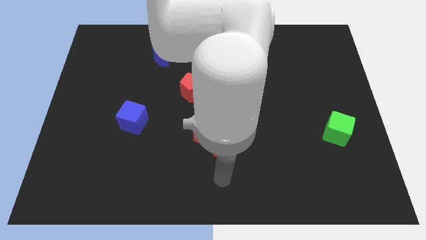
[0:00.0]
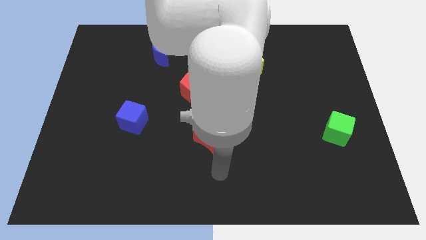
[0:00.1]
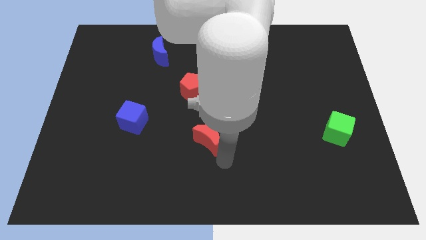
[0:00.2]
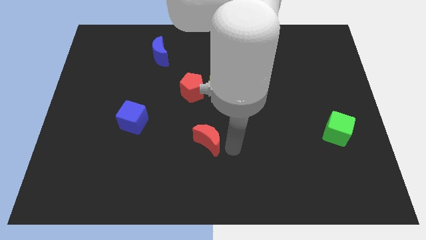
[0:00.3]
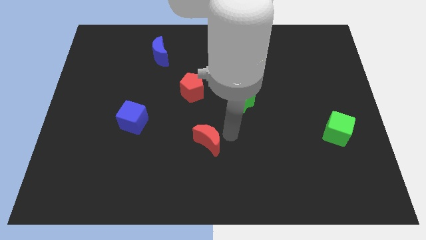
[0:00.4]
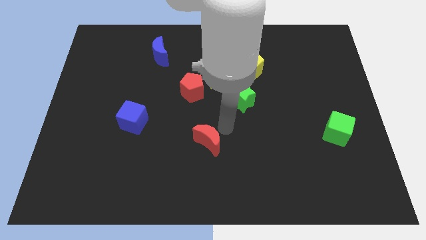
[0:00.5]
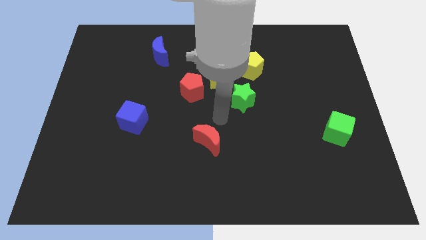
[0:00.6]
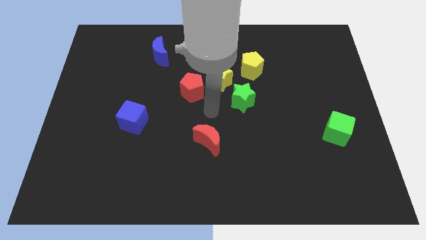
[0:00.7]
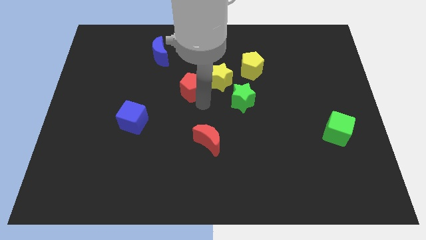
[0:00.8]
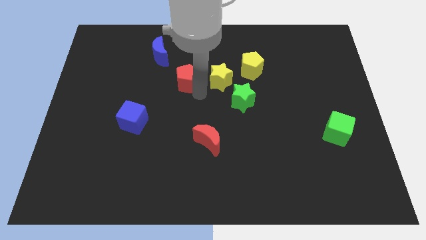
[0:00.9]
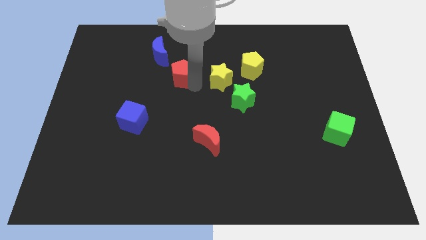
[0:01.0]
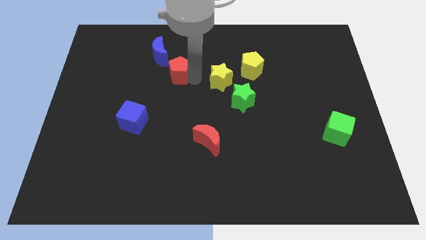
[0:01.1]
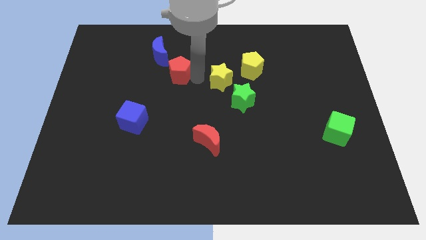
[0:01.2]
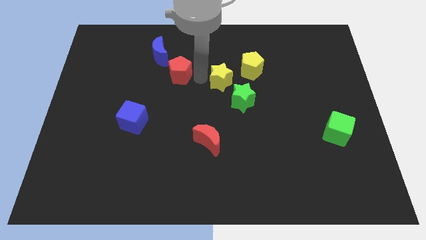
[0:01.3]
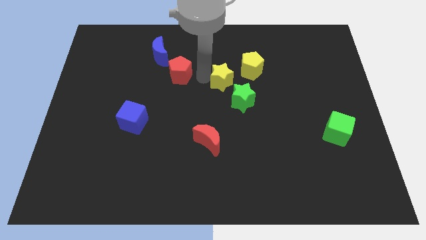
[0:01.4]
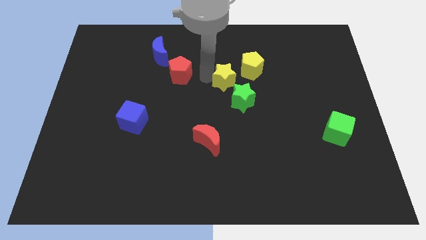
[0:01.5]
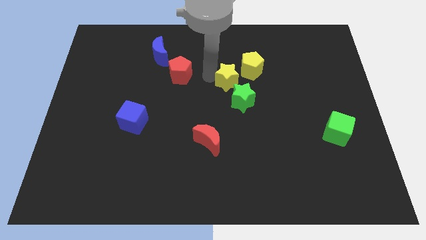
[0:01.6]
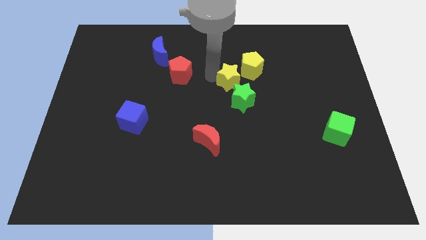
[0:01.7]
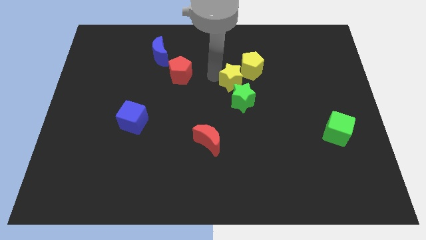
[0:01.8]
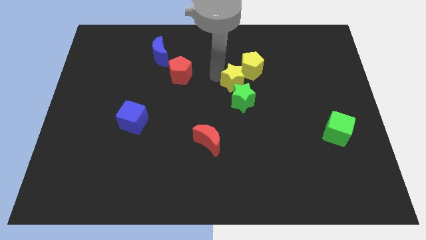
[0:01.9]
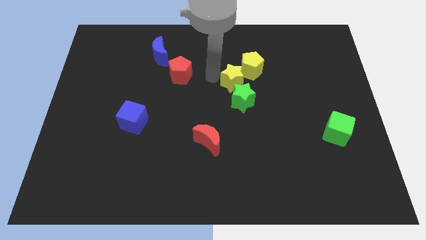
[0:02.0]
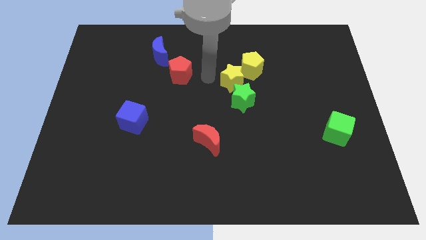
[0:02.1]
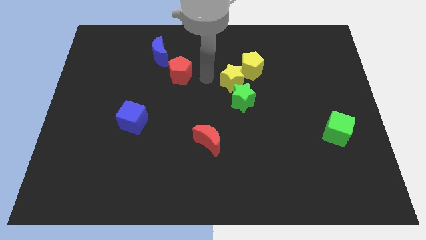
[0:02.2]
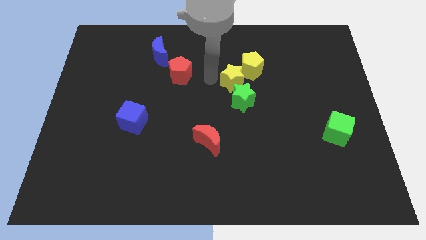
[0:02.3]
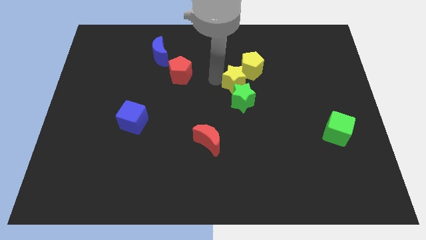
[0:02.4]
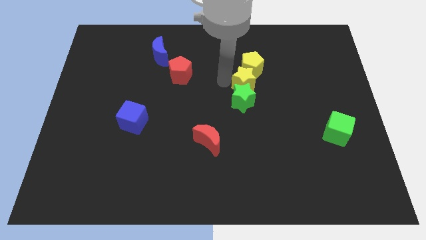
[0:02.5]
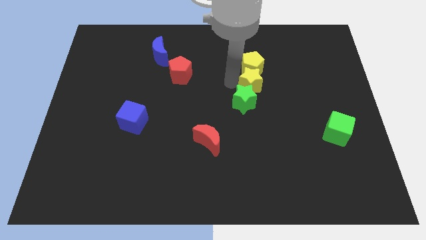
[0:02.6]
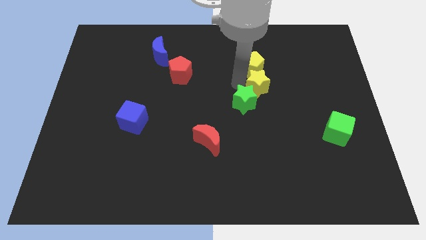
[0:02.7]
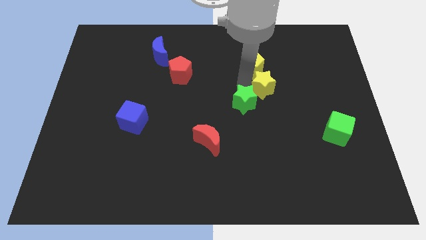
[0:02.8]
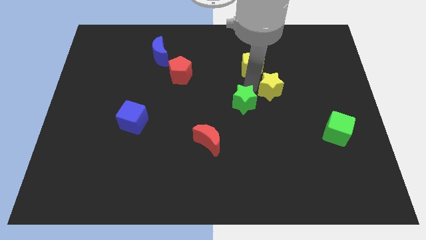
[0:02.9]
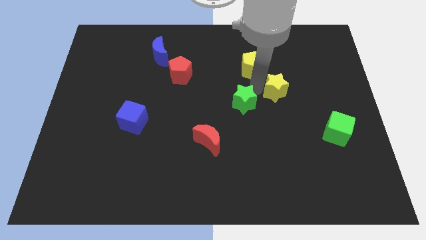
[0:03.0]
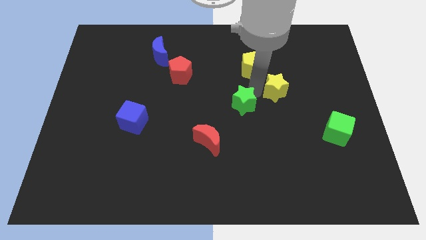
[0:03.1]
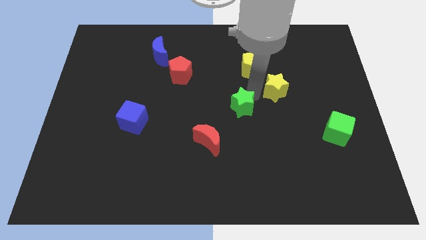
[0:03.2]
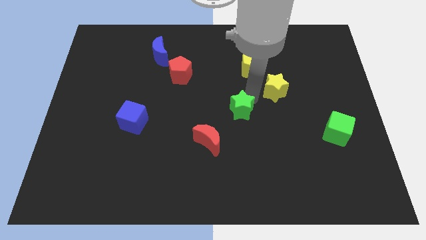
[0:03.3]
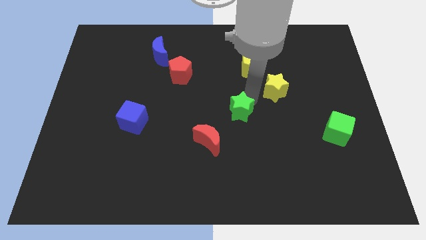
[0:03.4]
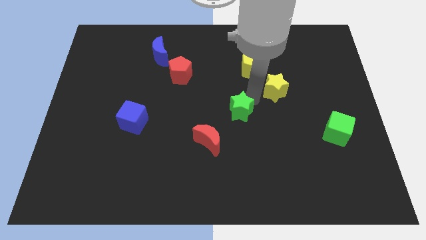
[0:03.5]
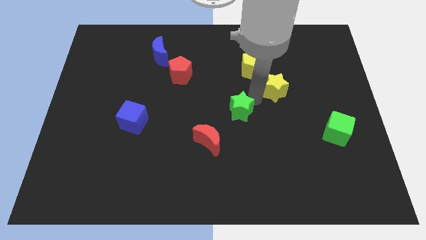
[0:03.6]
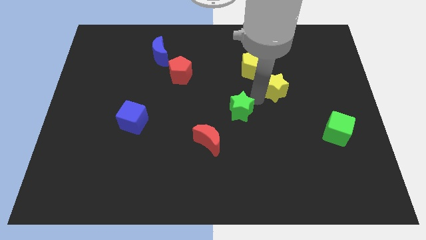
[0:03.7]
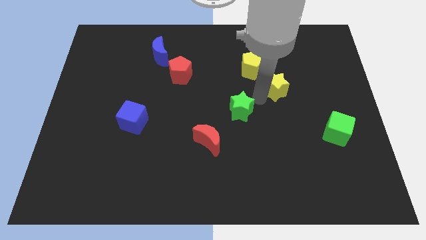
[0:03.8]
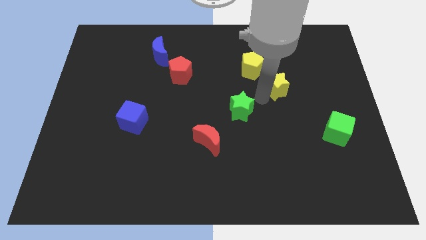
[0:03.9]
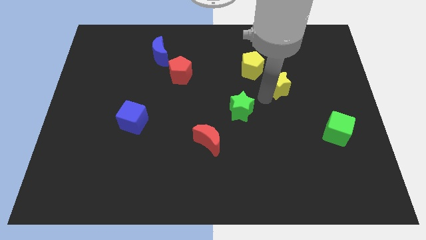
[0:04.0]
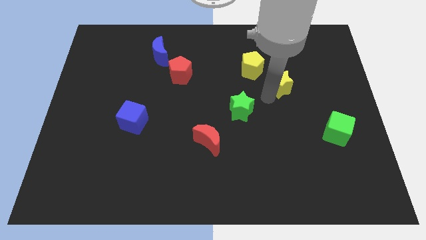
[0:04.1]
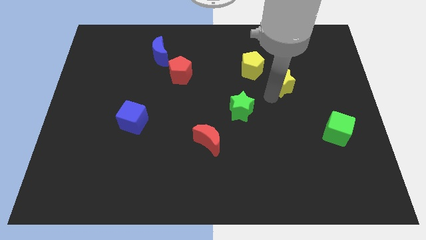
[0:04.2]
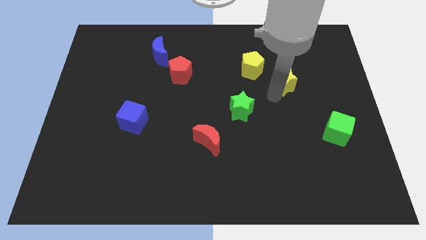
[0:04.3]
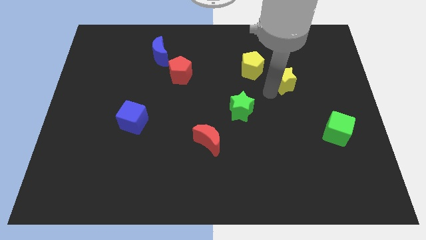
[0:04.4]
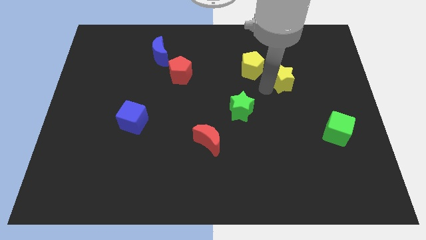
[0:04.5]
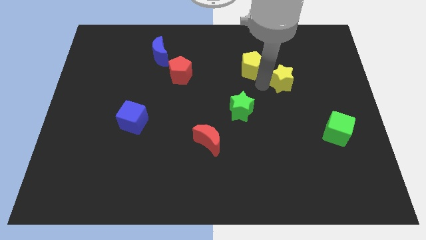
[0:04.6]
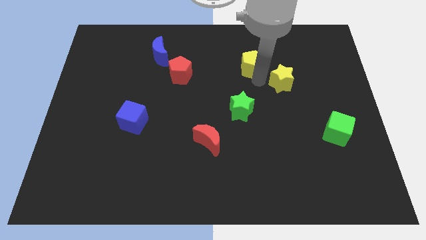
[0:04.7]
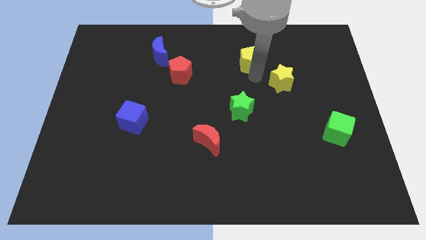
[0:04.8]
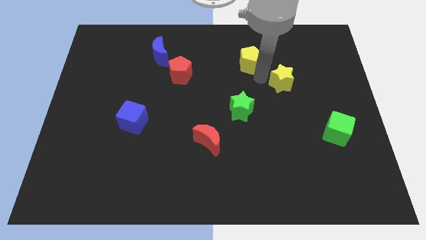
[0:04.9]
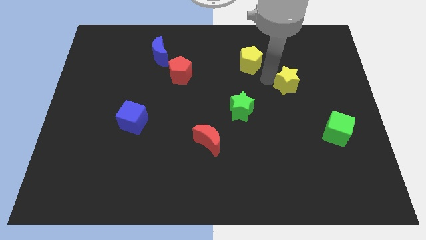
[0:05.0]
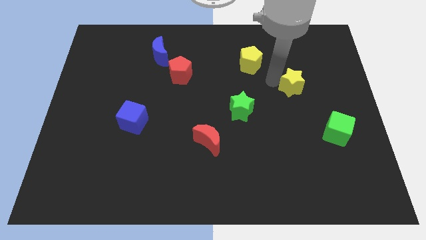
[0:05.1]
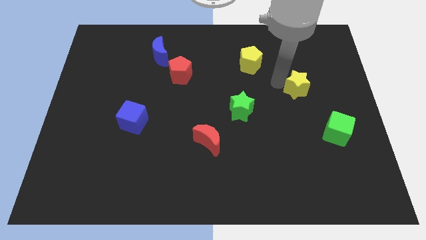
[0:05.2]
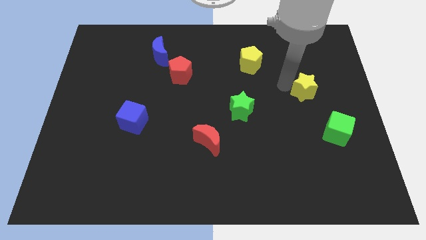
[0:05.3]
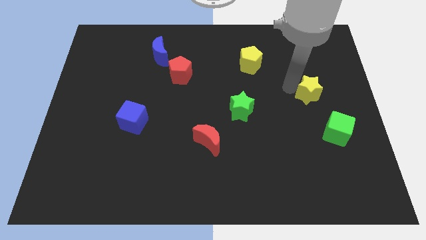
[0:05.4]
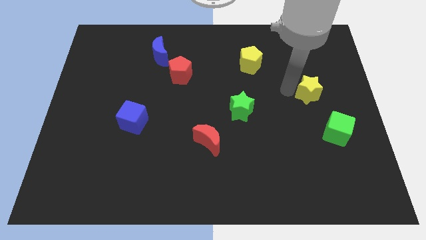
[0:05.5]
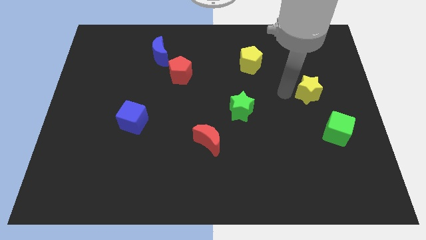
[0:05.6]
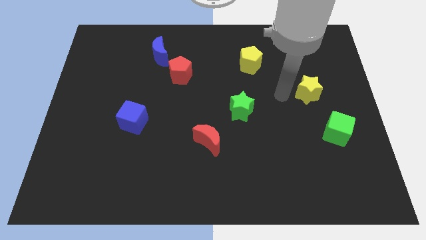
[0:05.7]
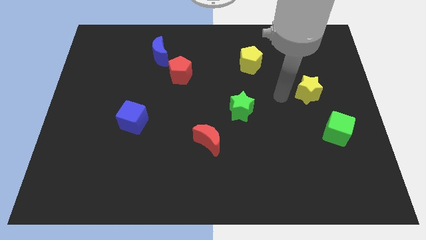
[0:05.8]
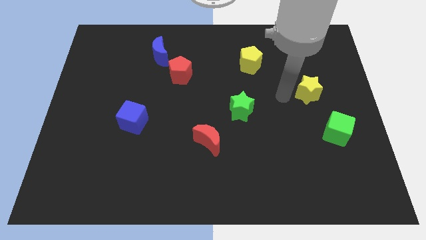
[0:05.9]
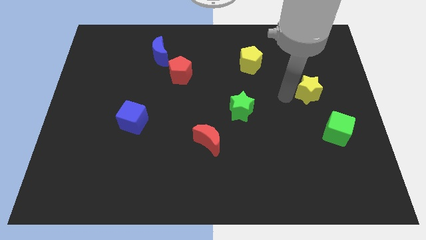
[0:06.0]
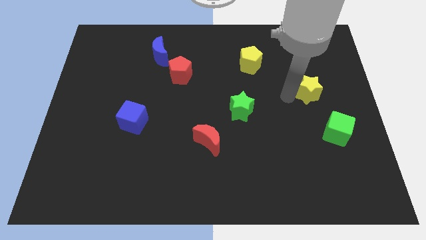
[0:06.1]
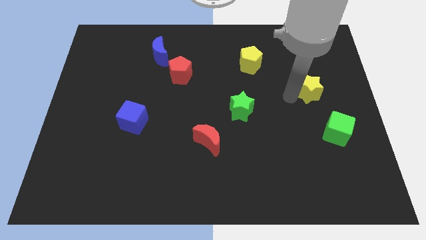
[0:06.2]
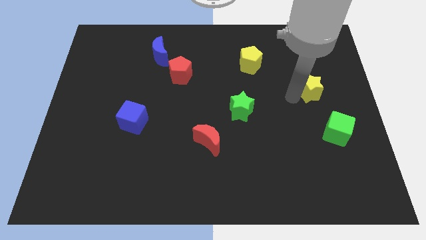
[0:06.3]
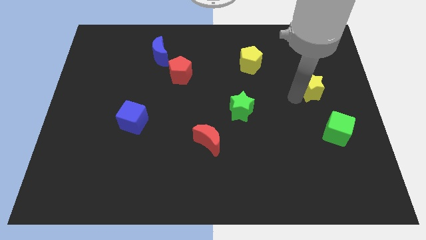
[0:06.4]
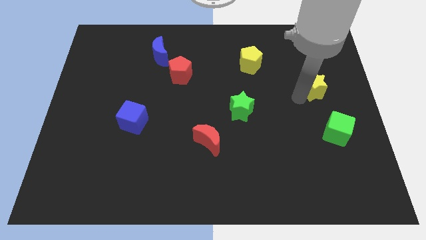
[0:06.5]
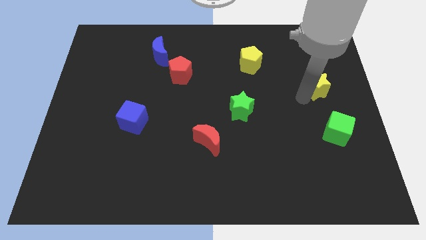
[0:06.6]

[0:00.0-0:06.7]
push the yellow star to the right side of the board

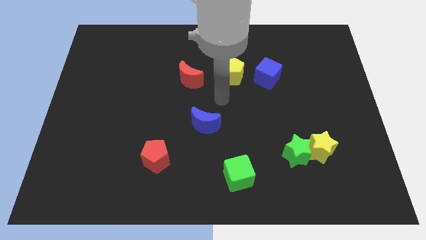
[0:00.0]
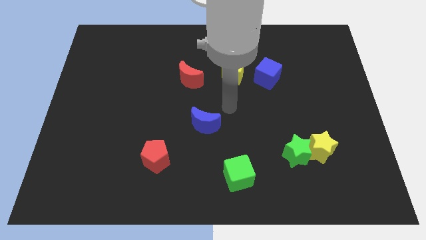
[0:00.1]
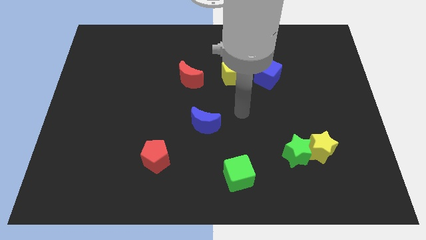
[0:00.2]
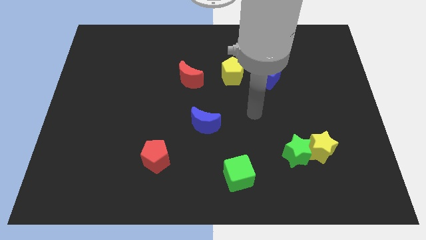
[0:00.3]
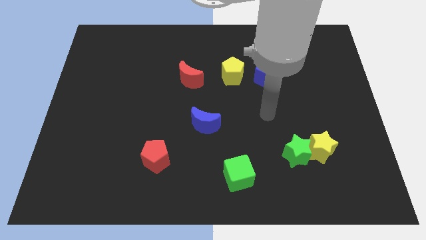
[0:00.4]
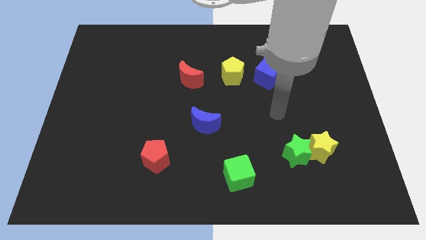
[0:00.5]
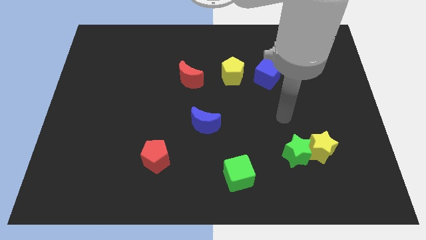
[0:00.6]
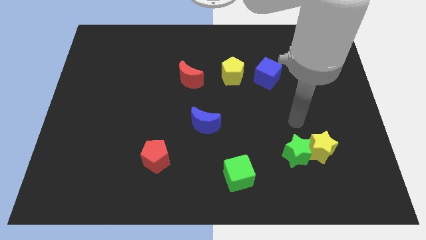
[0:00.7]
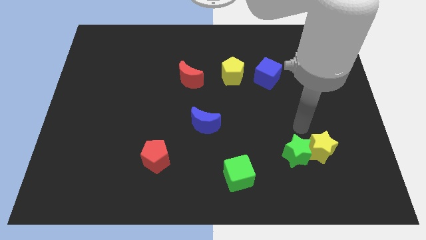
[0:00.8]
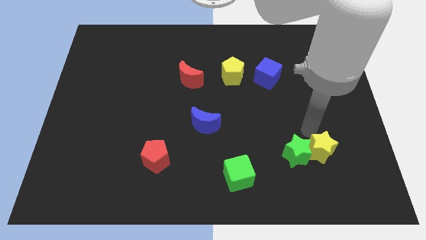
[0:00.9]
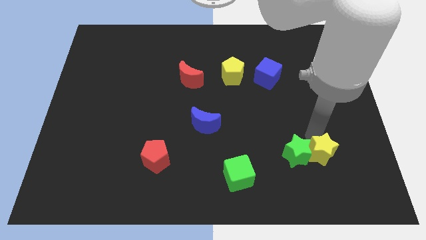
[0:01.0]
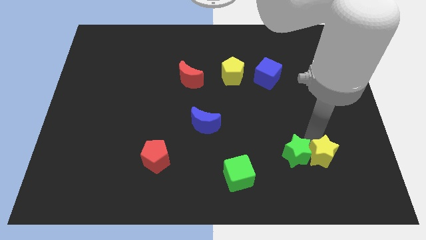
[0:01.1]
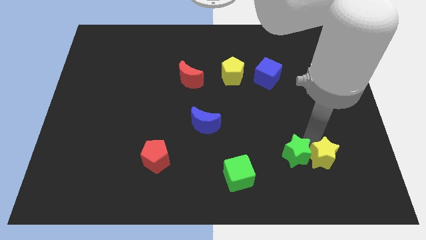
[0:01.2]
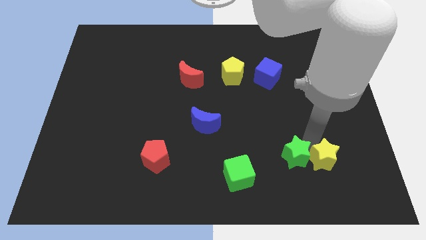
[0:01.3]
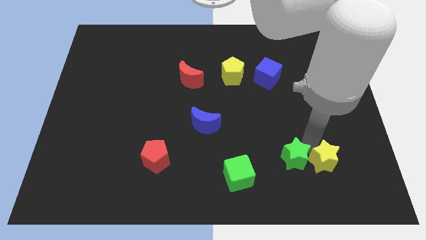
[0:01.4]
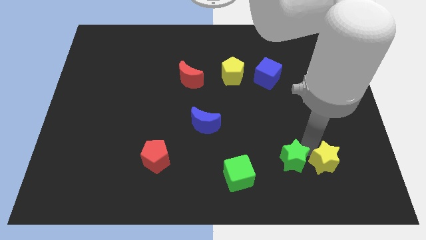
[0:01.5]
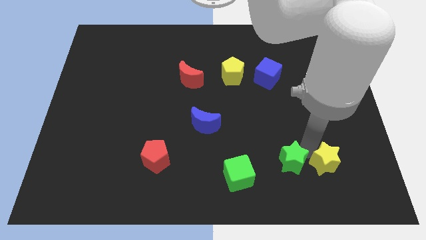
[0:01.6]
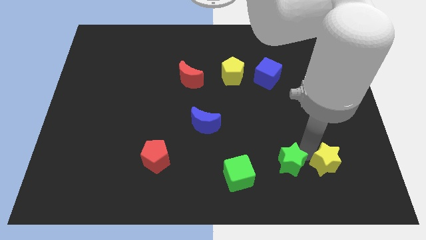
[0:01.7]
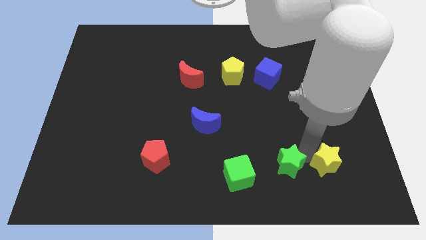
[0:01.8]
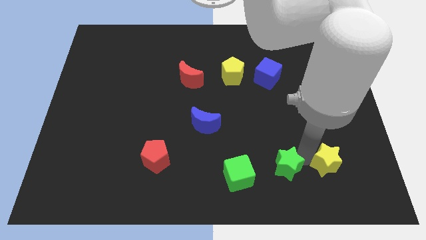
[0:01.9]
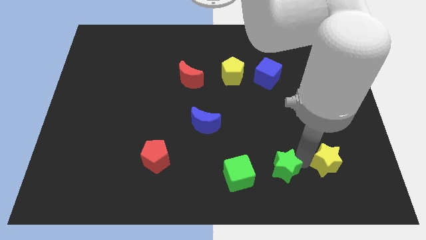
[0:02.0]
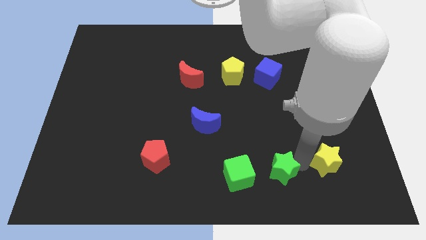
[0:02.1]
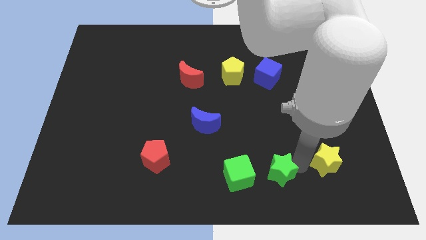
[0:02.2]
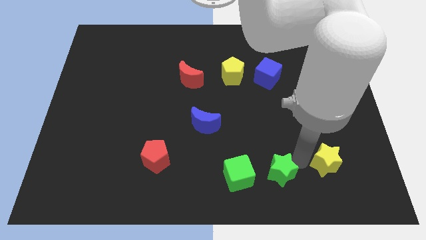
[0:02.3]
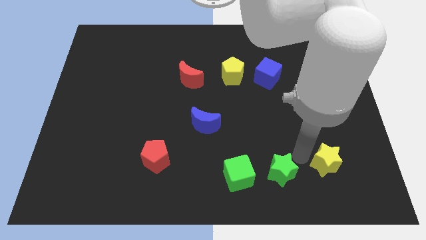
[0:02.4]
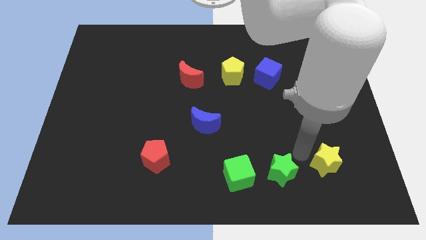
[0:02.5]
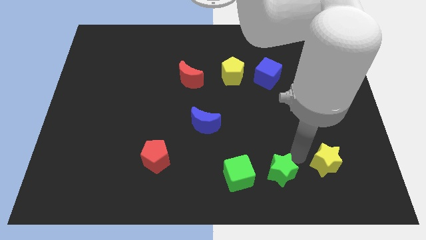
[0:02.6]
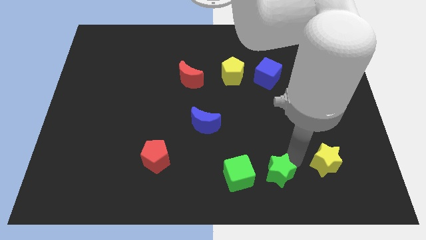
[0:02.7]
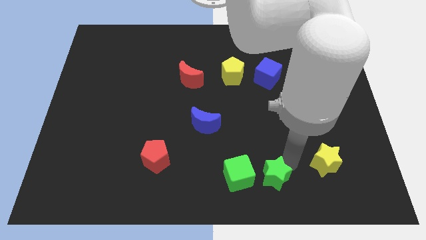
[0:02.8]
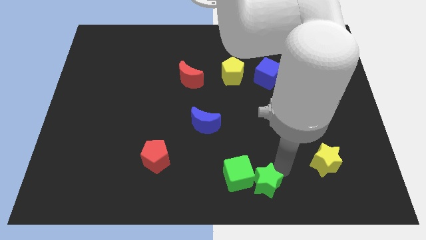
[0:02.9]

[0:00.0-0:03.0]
move the green star to the bottom
